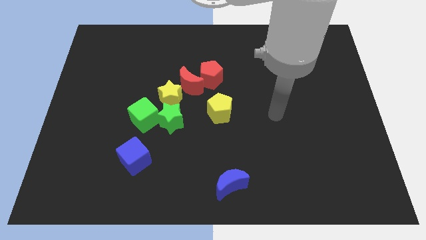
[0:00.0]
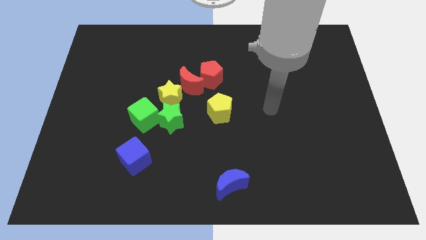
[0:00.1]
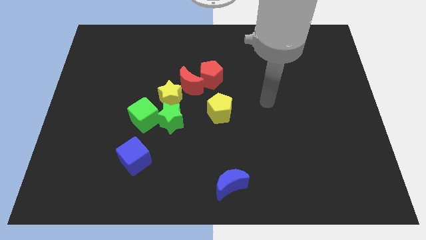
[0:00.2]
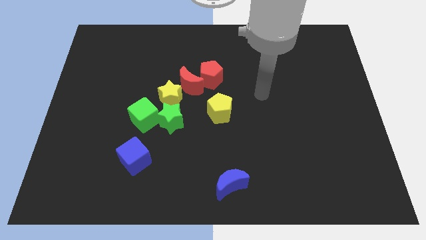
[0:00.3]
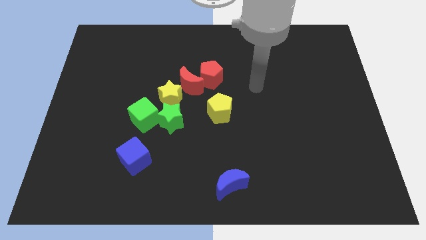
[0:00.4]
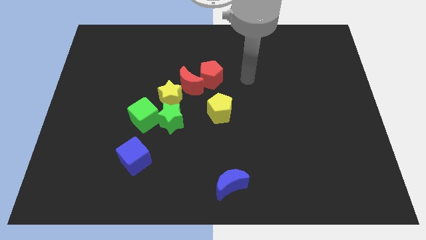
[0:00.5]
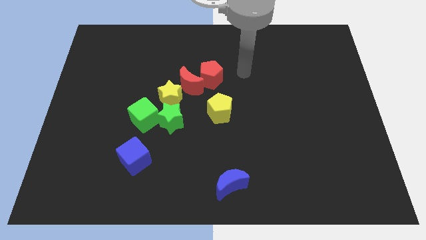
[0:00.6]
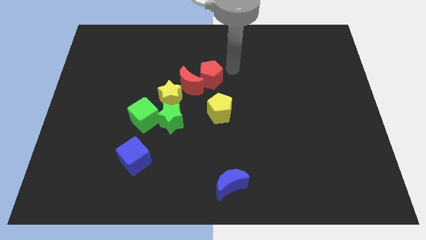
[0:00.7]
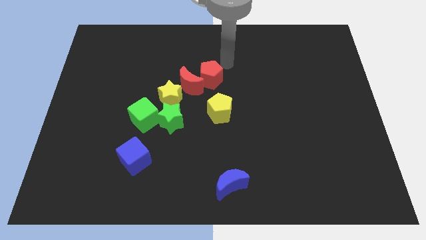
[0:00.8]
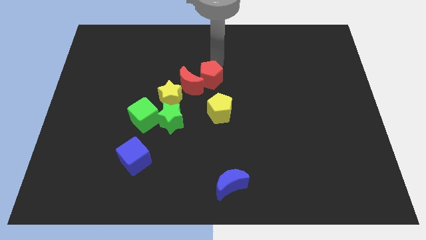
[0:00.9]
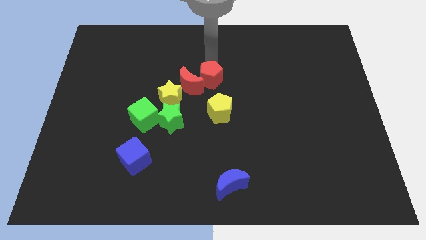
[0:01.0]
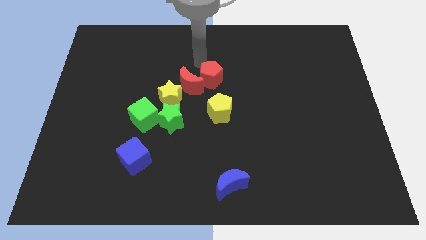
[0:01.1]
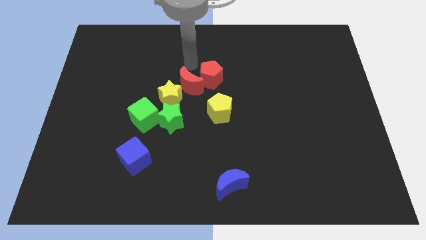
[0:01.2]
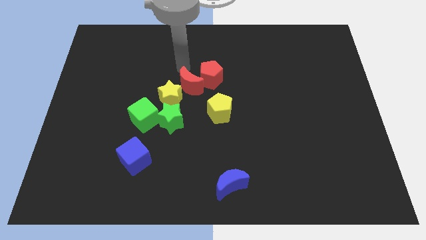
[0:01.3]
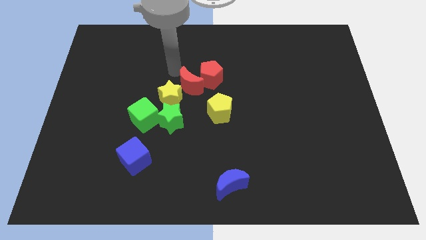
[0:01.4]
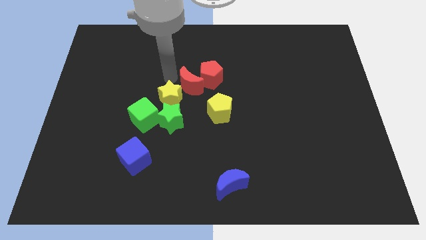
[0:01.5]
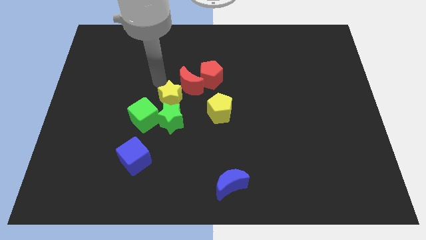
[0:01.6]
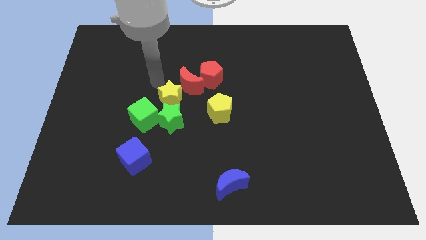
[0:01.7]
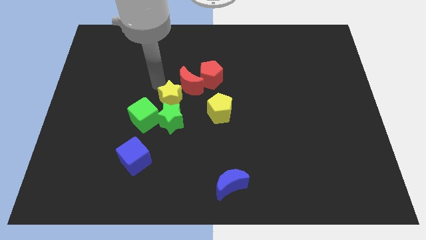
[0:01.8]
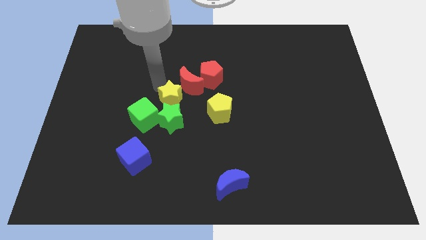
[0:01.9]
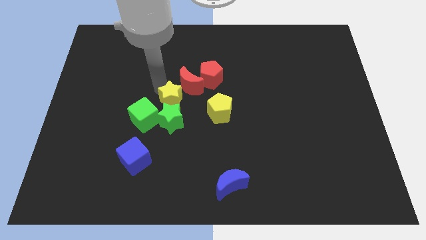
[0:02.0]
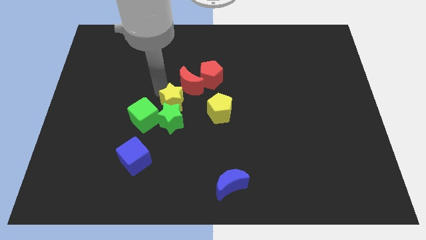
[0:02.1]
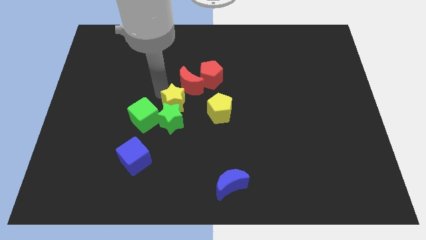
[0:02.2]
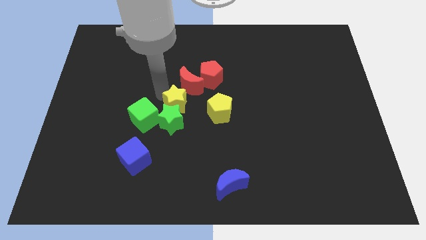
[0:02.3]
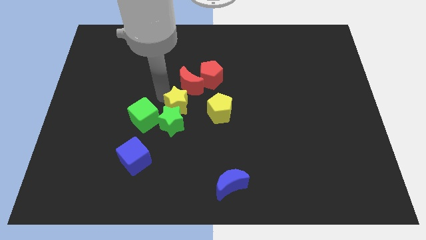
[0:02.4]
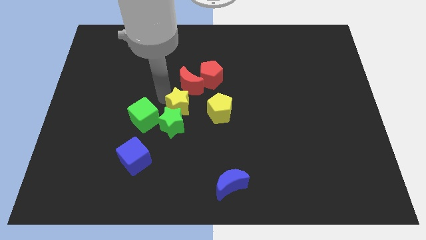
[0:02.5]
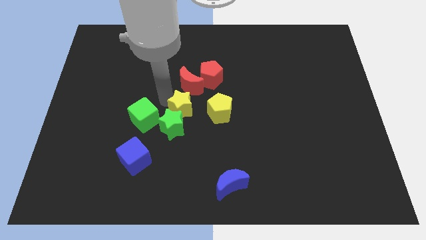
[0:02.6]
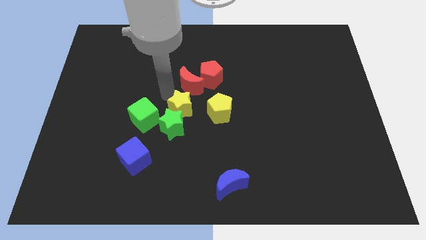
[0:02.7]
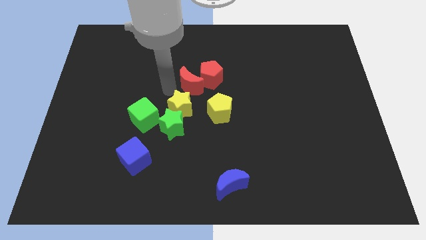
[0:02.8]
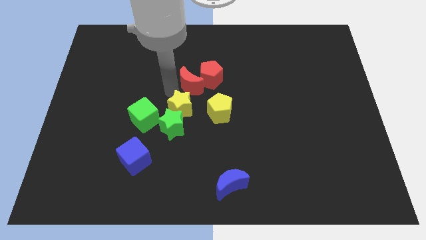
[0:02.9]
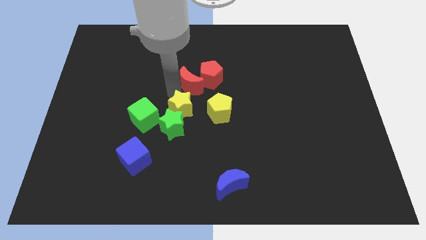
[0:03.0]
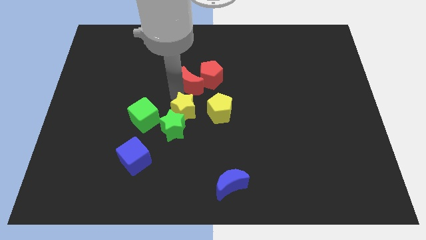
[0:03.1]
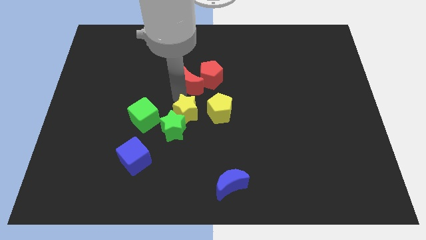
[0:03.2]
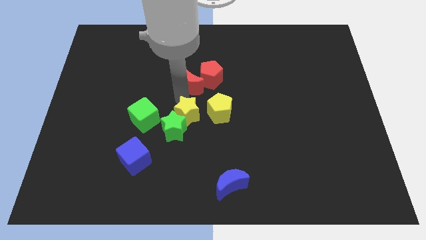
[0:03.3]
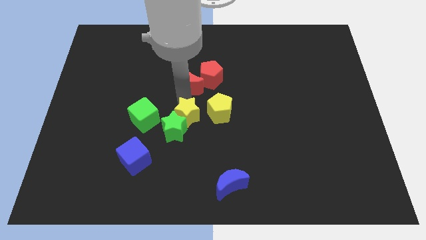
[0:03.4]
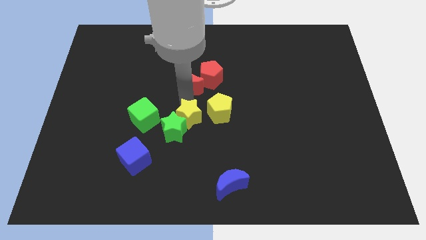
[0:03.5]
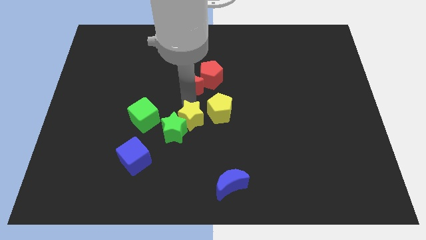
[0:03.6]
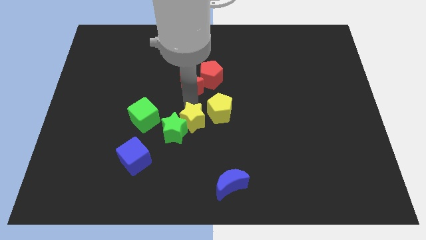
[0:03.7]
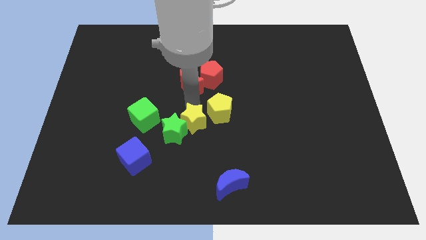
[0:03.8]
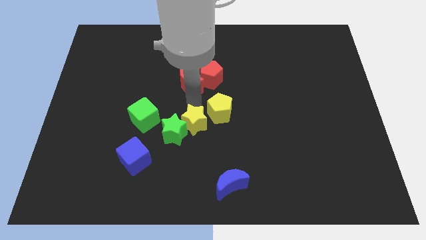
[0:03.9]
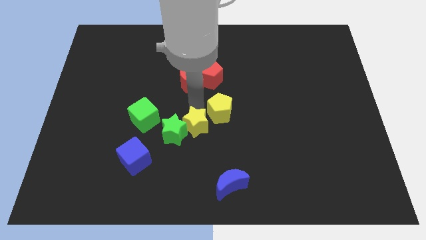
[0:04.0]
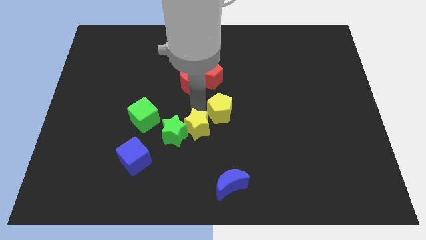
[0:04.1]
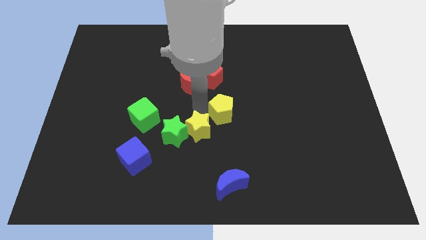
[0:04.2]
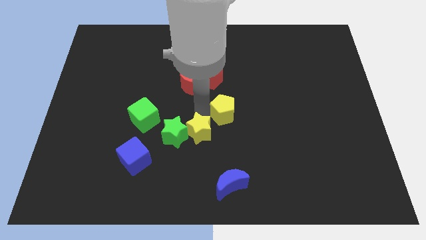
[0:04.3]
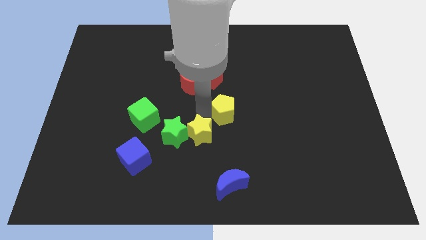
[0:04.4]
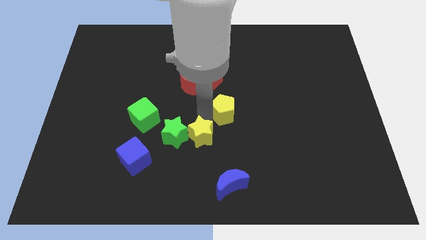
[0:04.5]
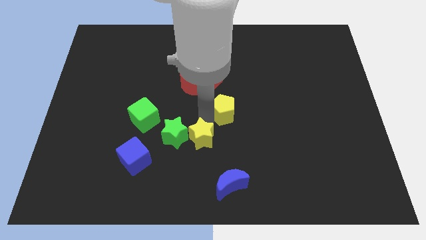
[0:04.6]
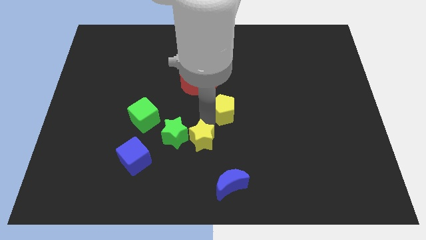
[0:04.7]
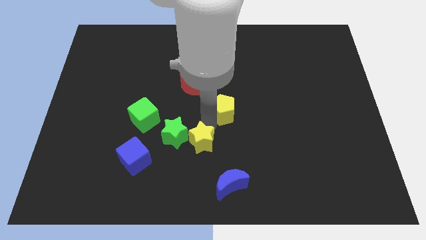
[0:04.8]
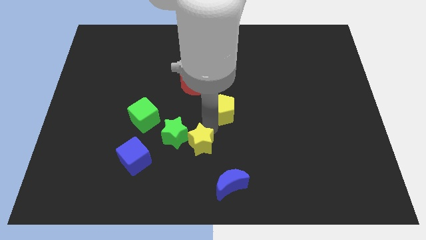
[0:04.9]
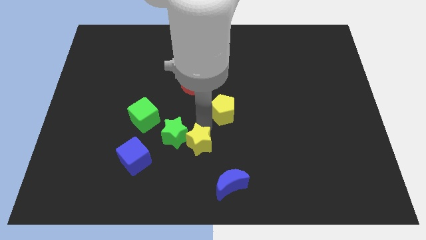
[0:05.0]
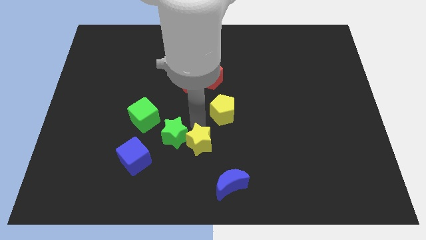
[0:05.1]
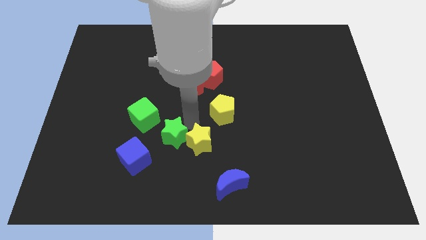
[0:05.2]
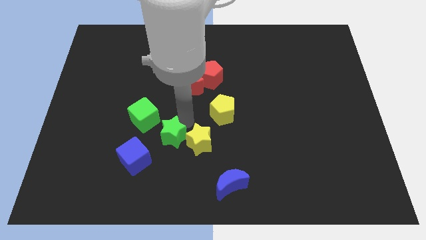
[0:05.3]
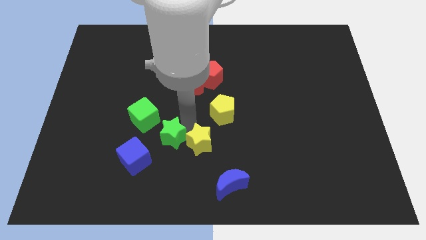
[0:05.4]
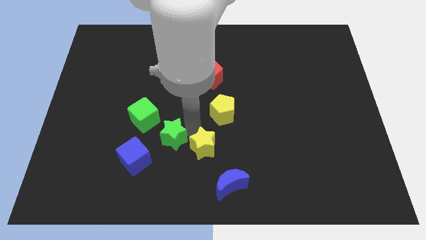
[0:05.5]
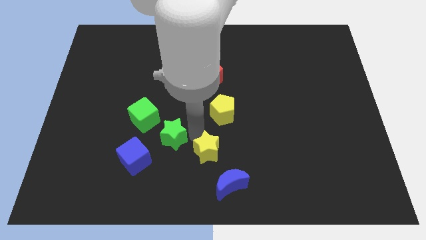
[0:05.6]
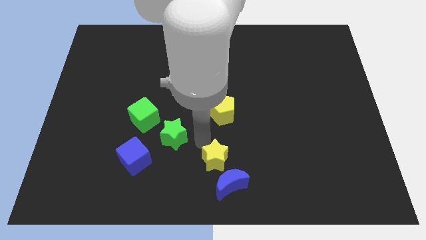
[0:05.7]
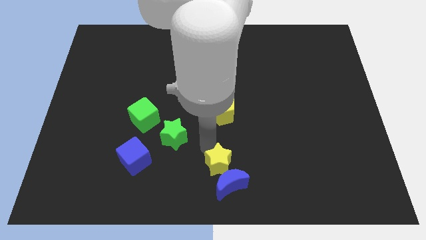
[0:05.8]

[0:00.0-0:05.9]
move the yellow star to the blue moon

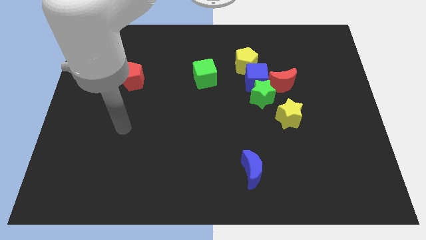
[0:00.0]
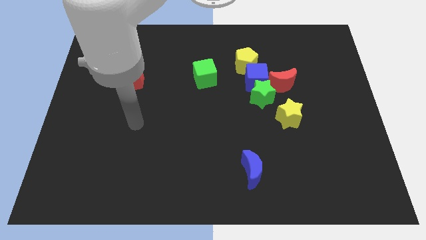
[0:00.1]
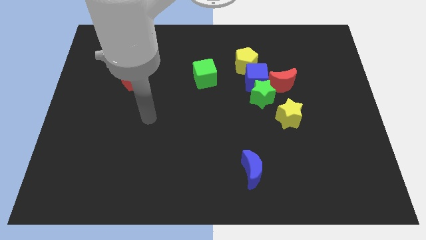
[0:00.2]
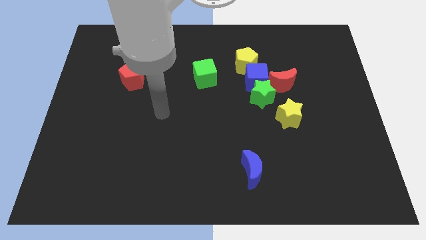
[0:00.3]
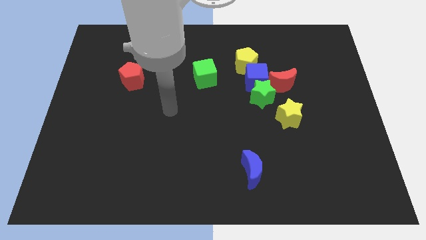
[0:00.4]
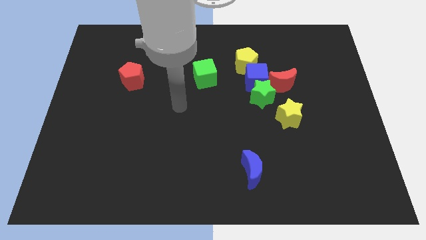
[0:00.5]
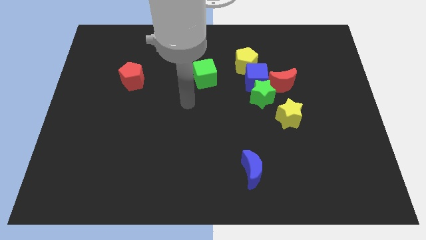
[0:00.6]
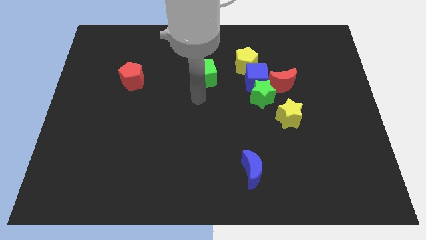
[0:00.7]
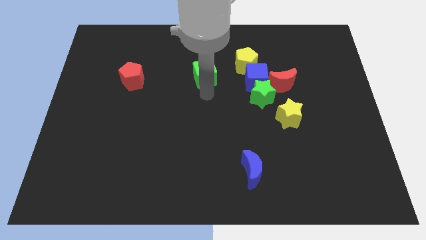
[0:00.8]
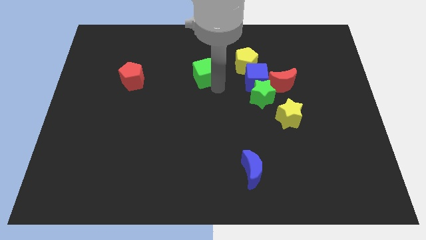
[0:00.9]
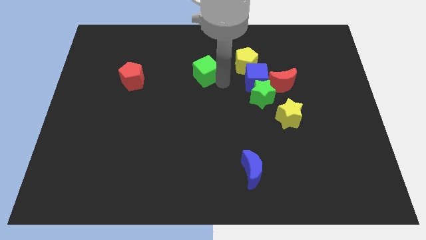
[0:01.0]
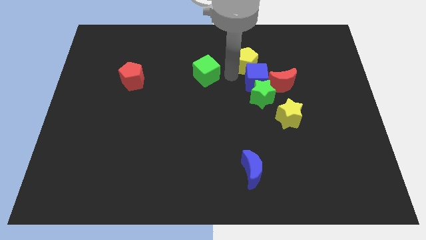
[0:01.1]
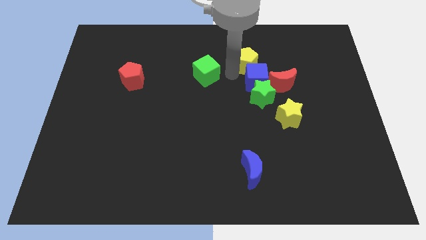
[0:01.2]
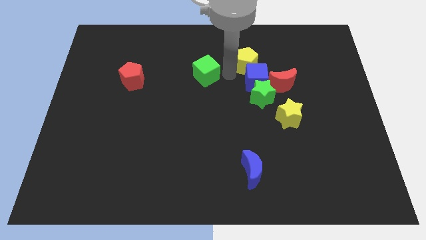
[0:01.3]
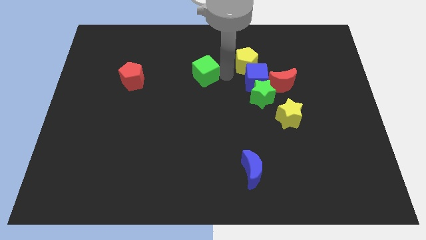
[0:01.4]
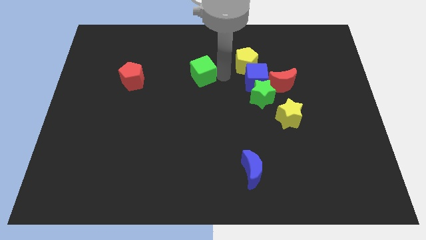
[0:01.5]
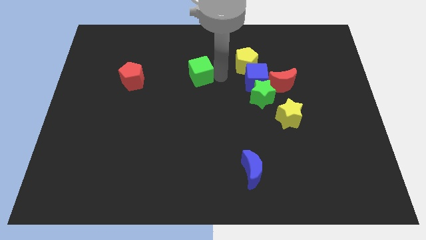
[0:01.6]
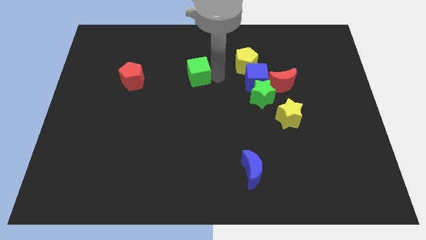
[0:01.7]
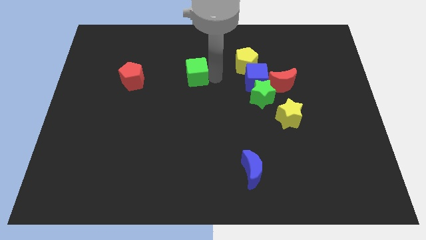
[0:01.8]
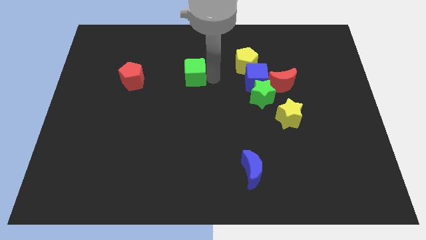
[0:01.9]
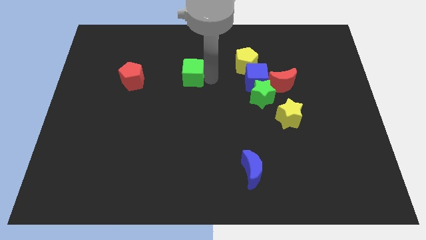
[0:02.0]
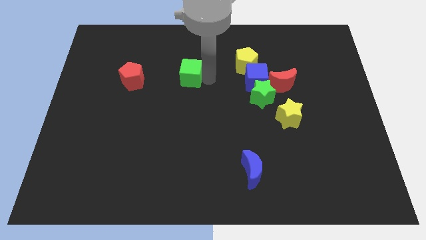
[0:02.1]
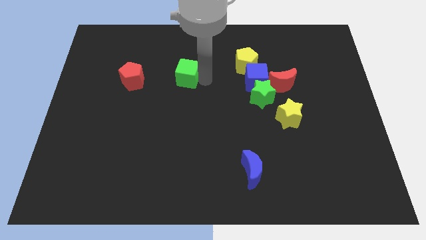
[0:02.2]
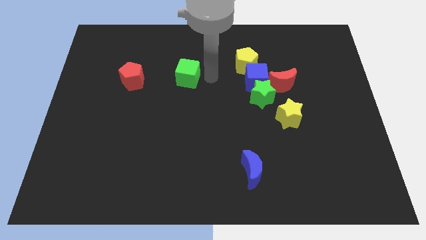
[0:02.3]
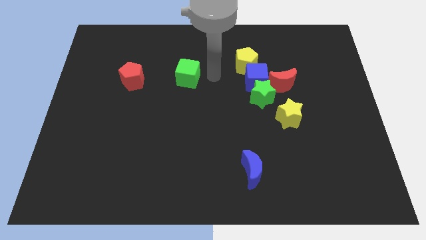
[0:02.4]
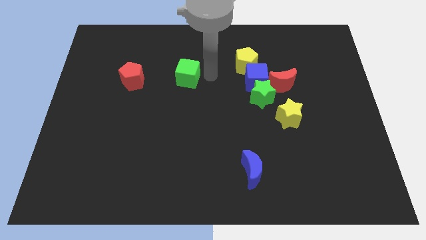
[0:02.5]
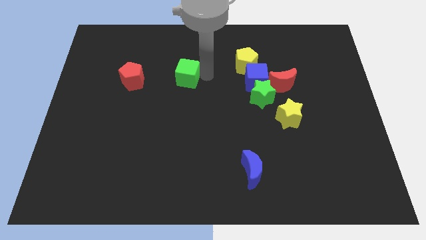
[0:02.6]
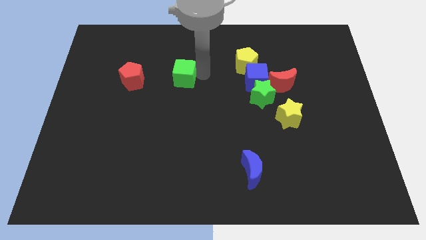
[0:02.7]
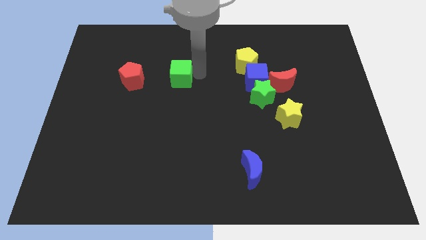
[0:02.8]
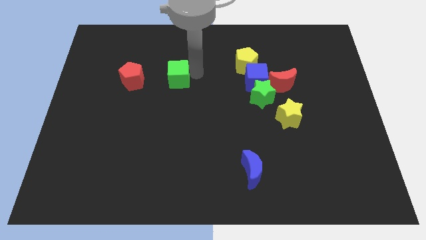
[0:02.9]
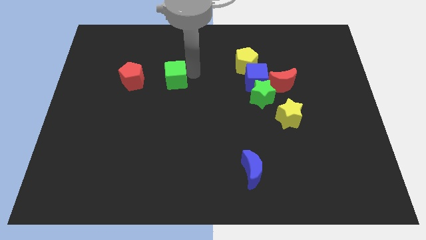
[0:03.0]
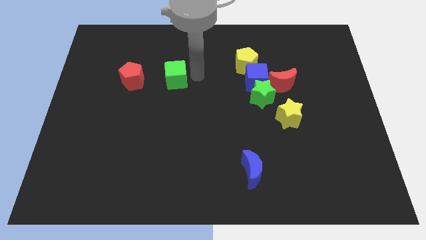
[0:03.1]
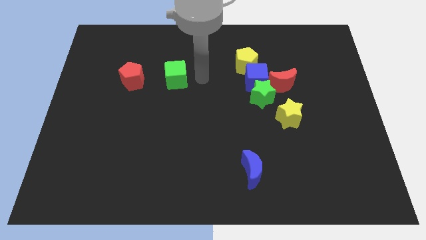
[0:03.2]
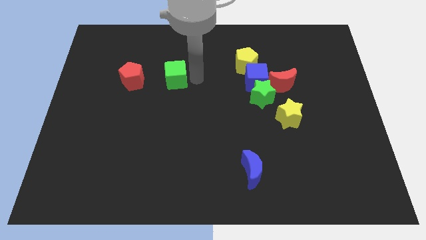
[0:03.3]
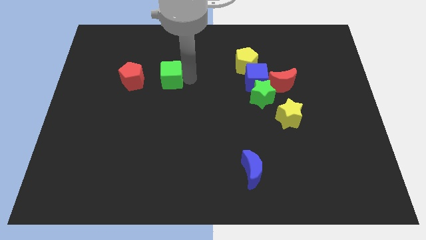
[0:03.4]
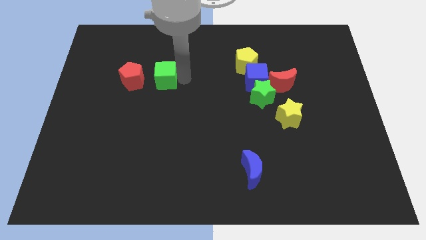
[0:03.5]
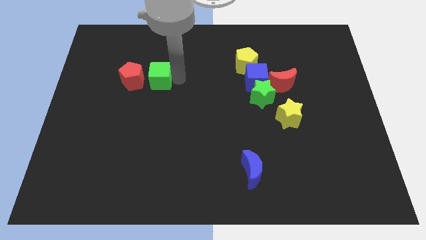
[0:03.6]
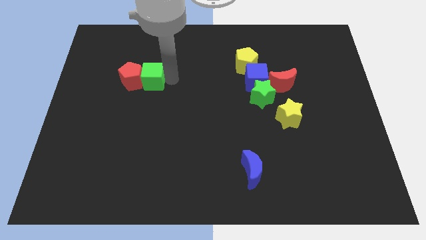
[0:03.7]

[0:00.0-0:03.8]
push the green cube next to the red pentagon
